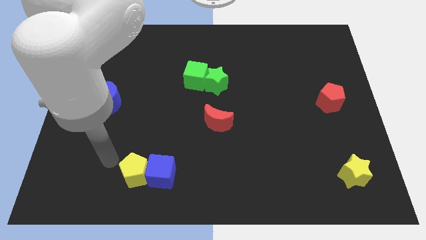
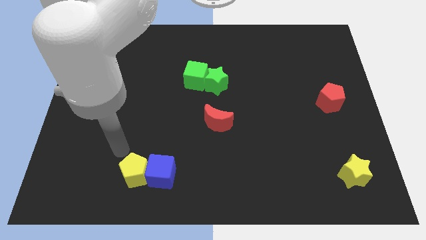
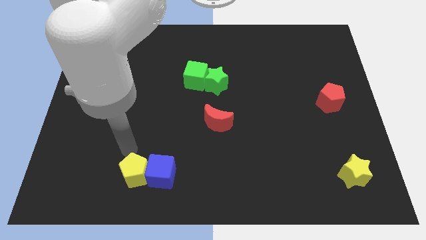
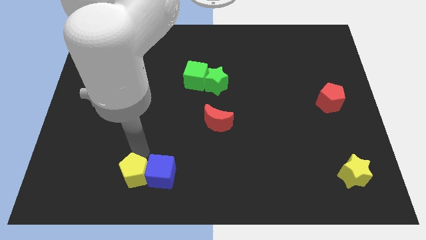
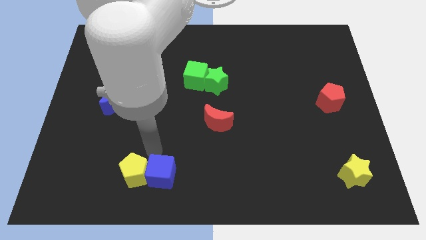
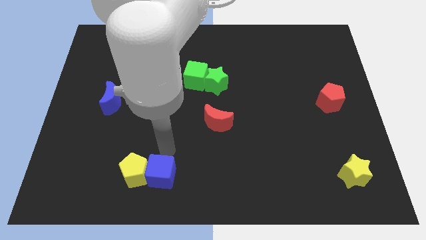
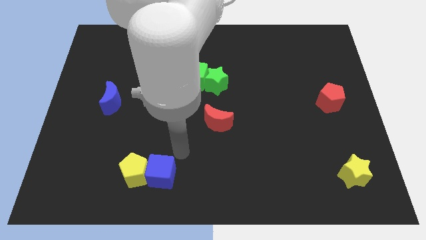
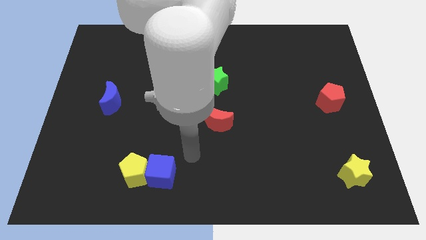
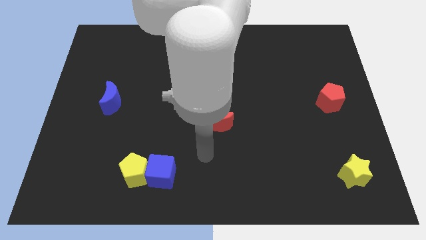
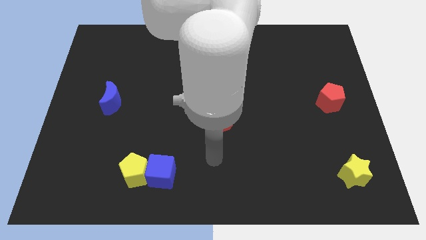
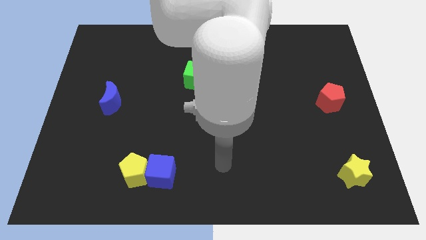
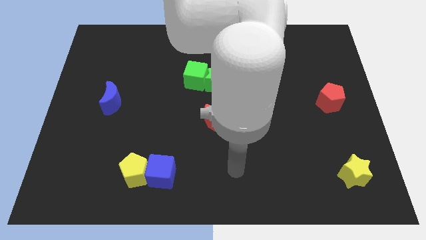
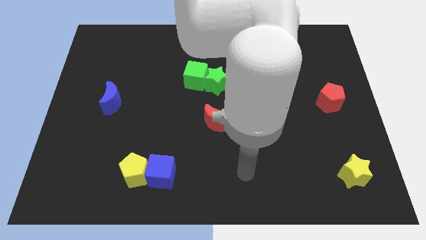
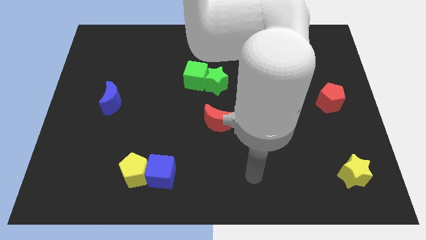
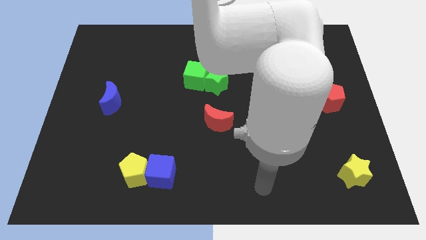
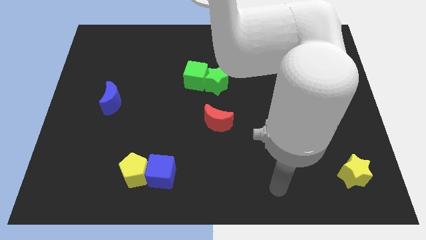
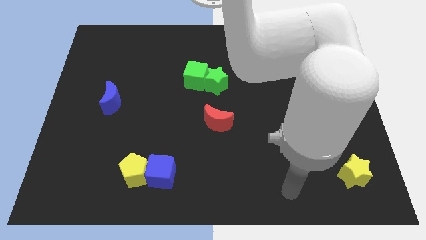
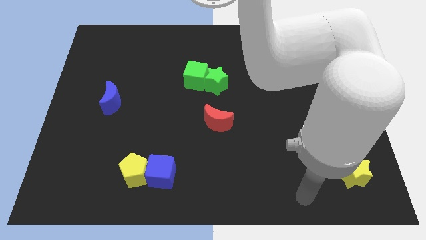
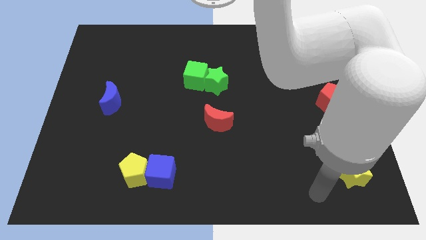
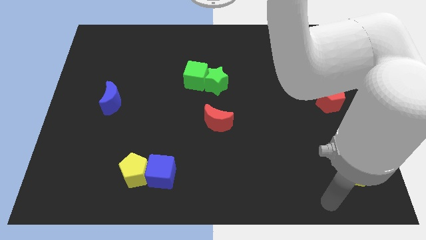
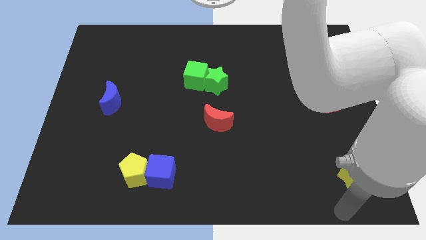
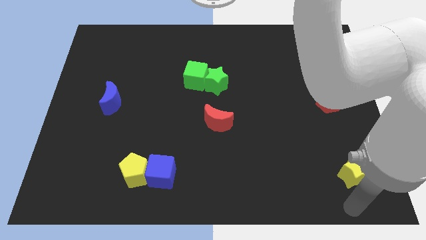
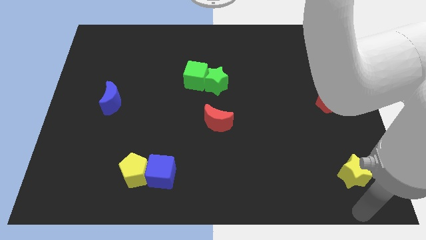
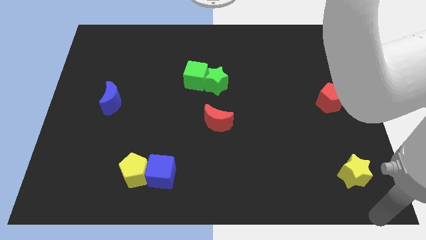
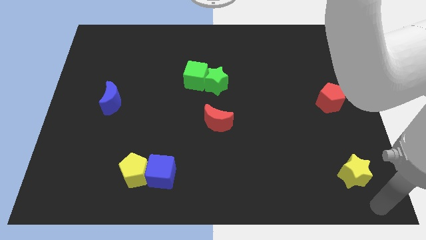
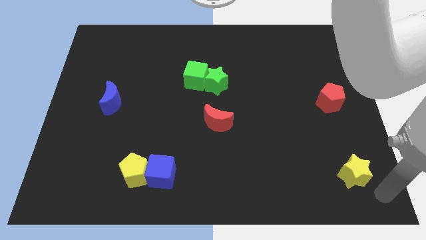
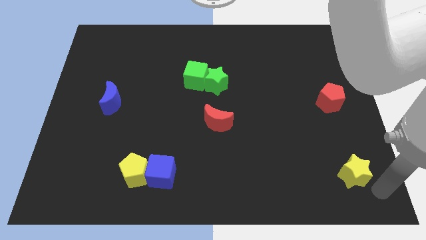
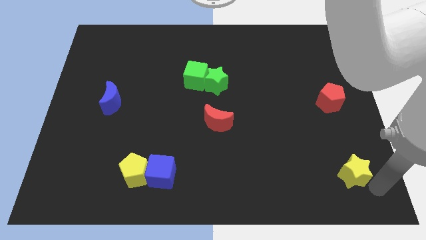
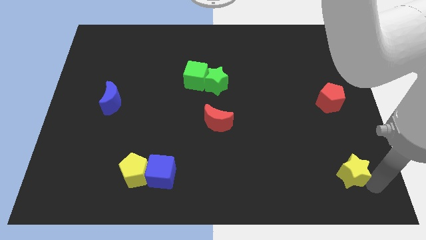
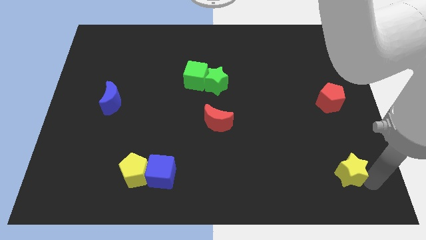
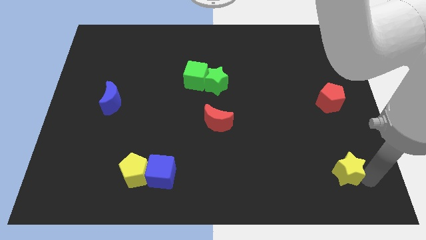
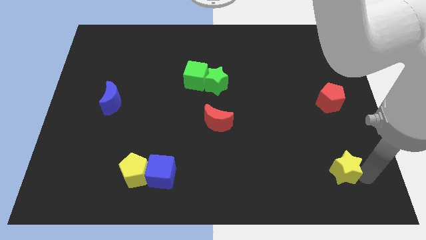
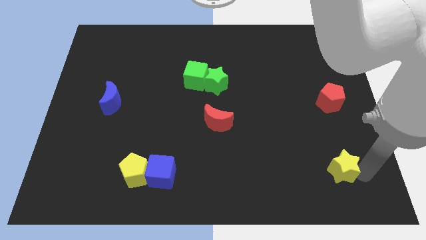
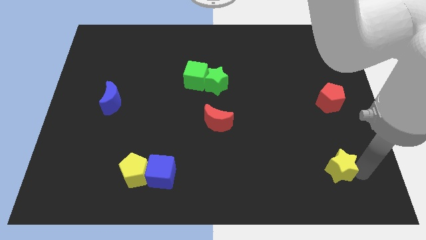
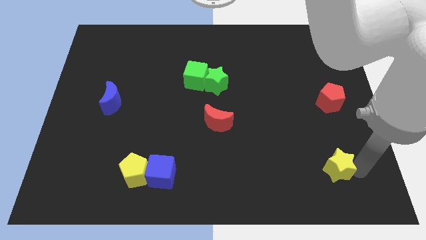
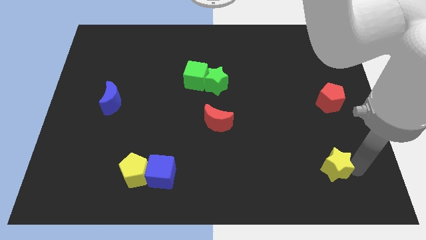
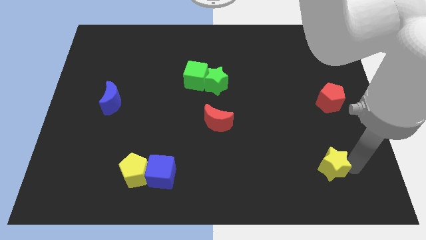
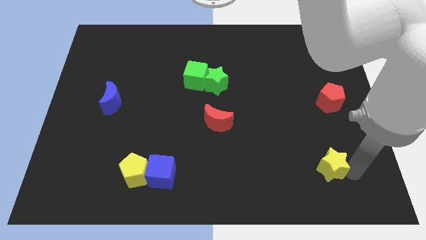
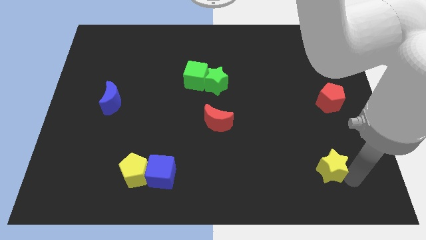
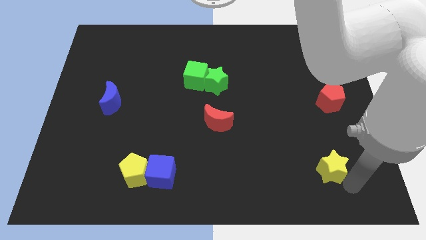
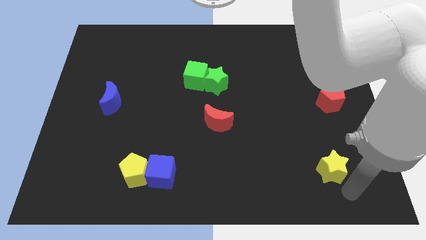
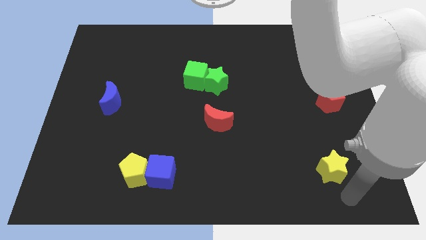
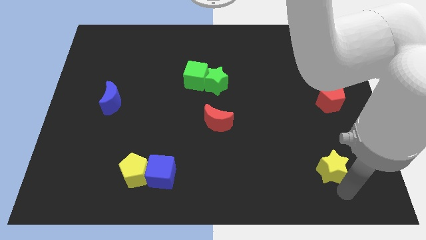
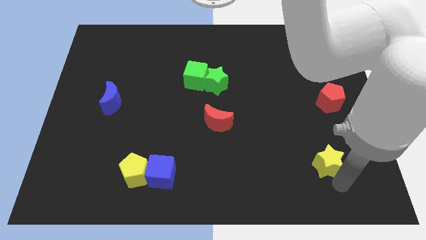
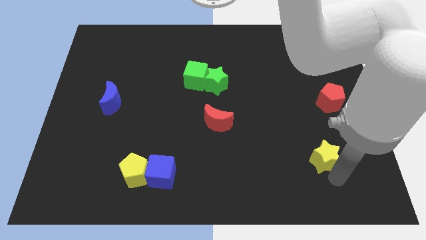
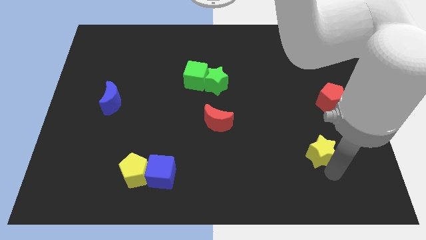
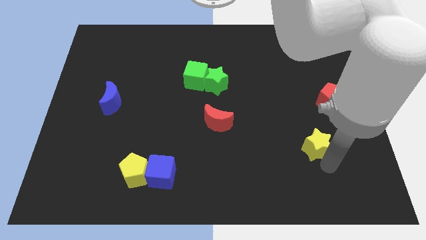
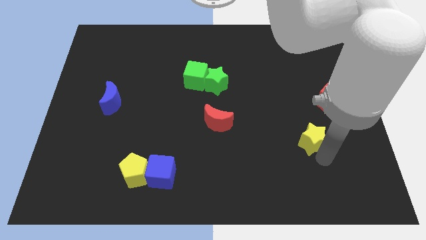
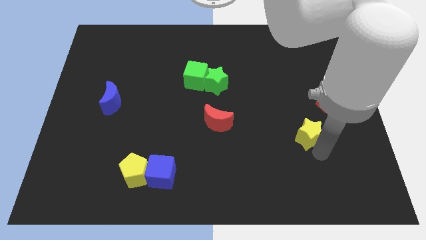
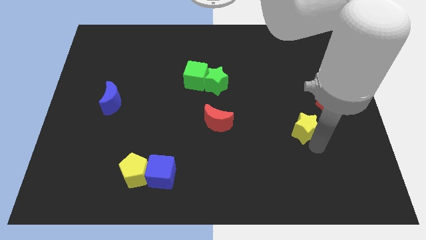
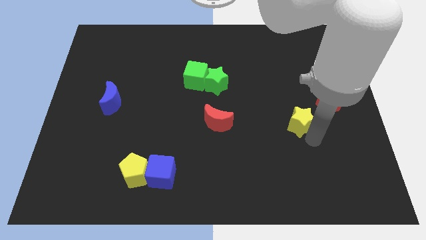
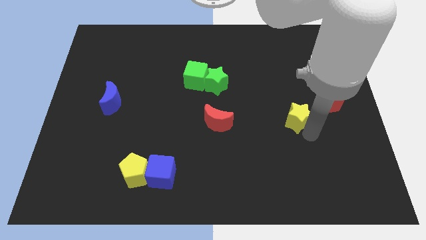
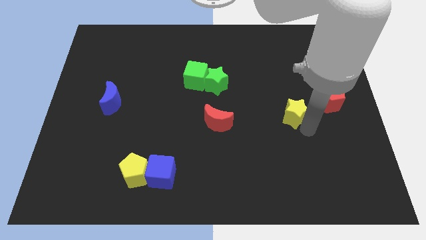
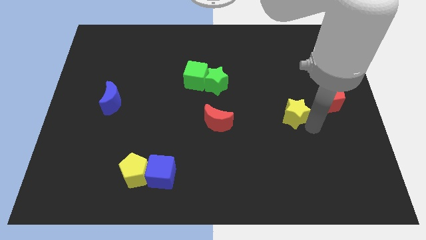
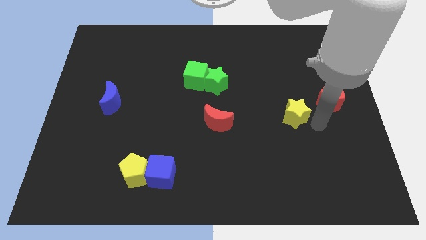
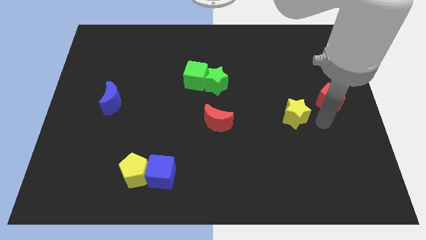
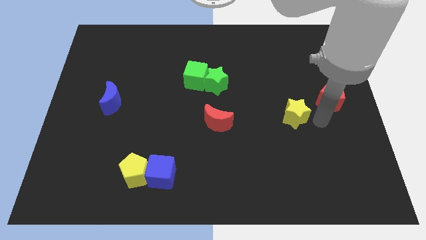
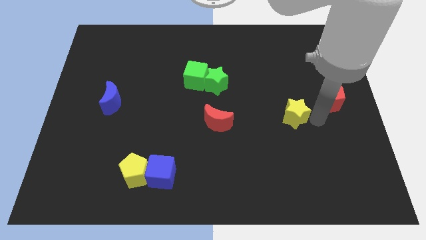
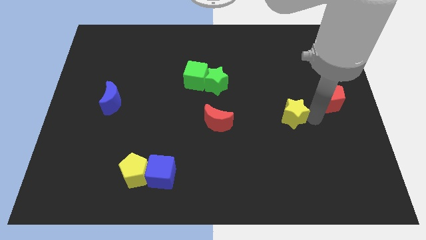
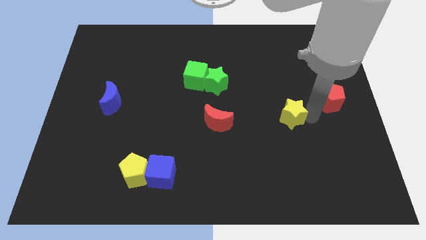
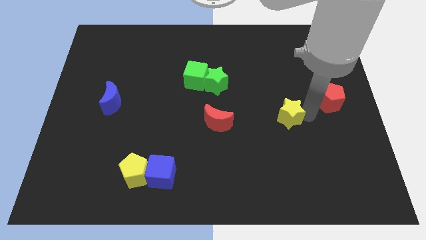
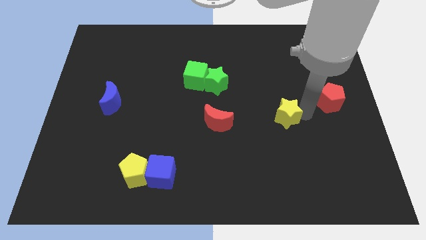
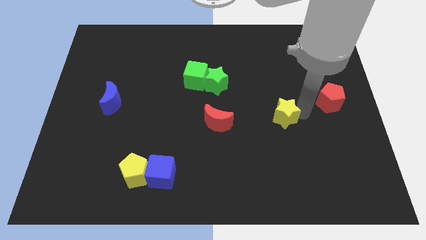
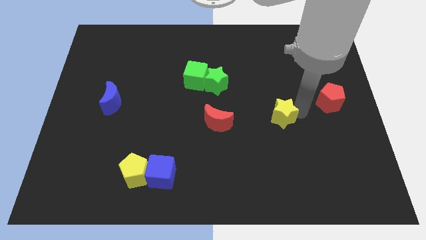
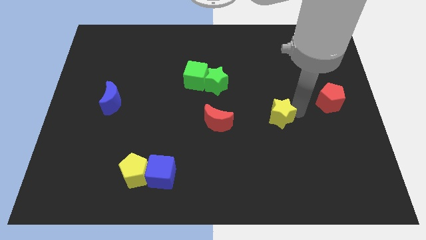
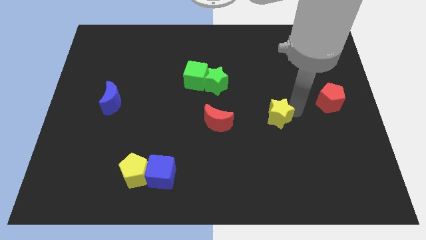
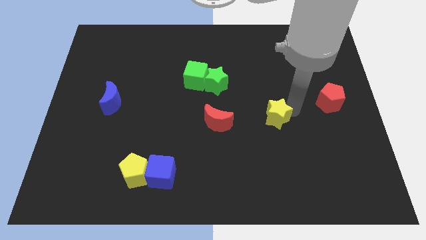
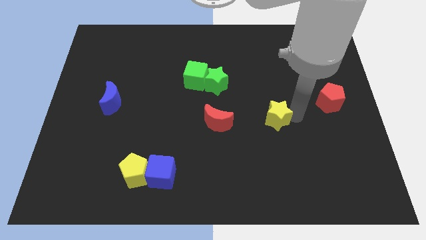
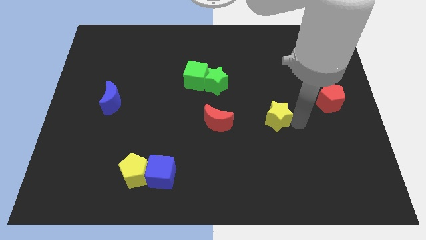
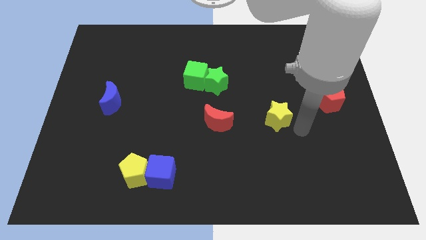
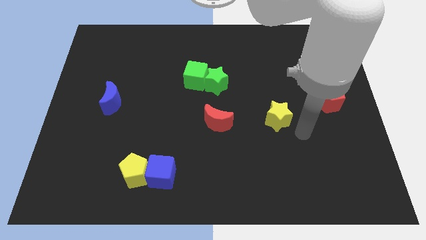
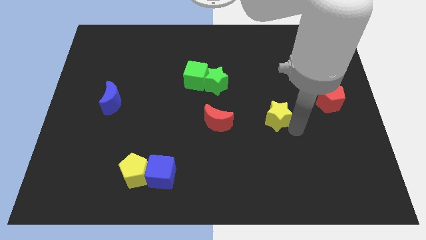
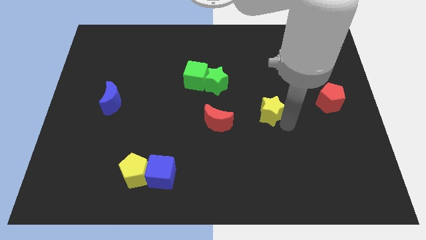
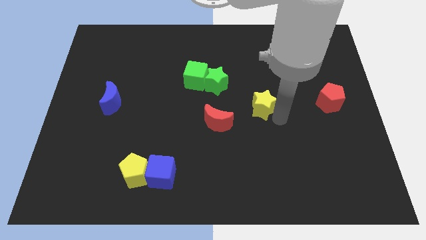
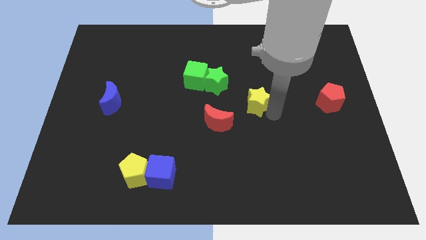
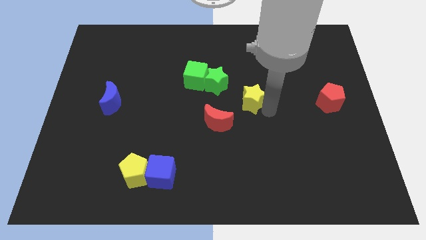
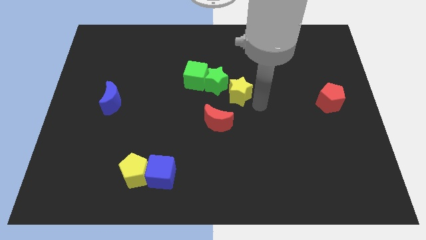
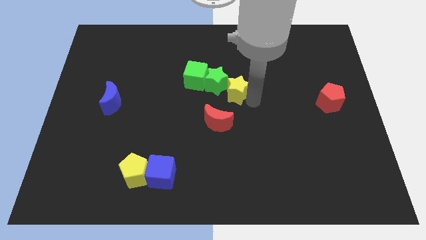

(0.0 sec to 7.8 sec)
slide the yellow star next to the green star
